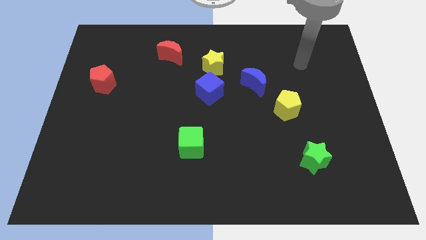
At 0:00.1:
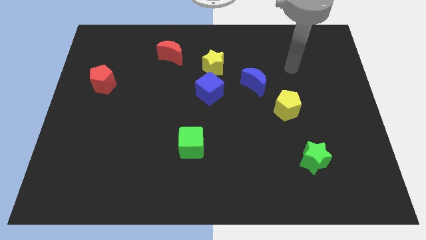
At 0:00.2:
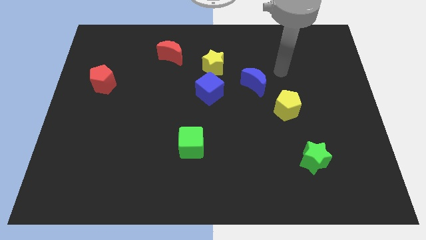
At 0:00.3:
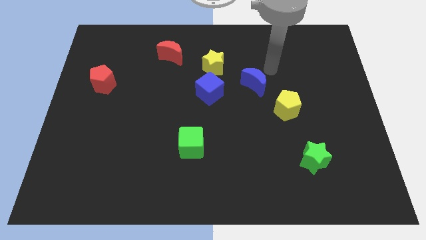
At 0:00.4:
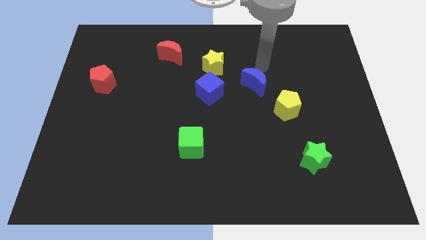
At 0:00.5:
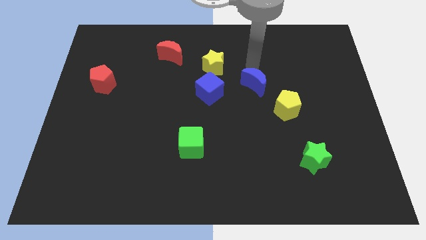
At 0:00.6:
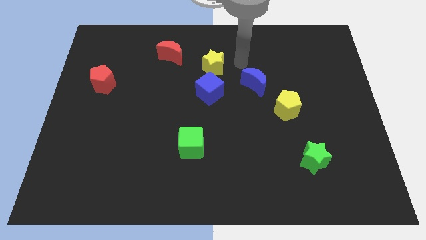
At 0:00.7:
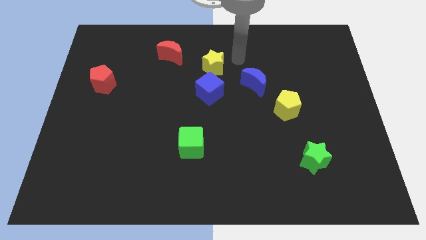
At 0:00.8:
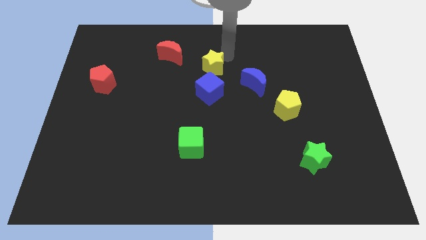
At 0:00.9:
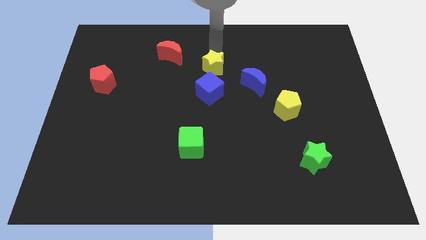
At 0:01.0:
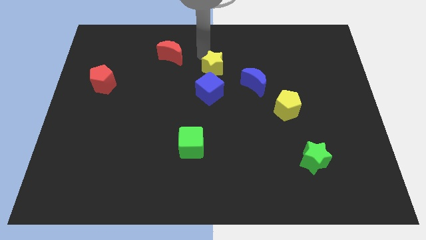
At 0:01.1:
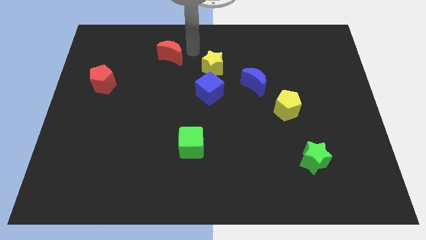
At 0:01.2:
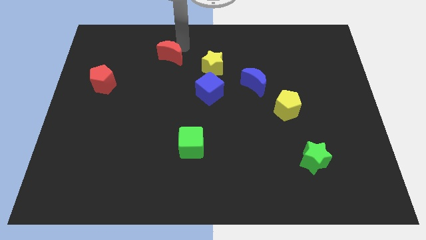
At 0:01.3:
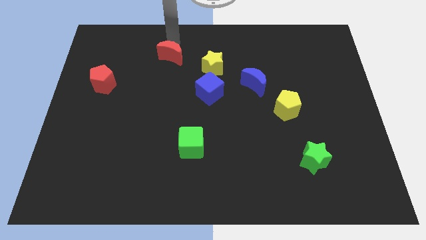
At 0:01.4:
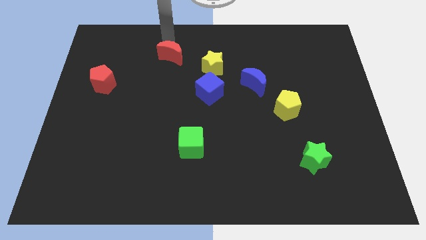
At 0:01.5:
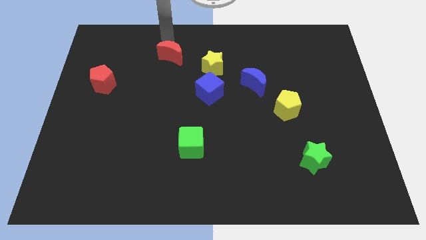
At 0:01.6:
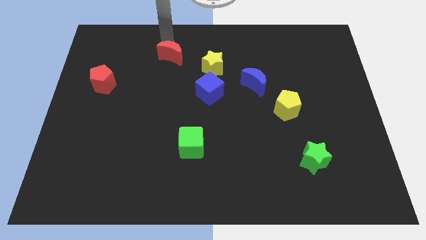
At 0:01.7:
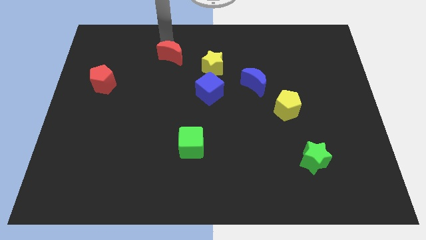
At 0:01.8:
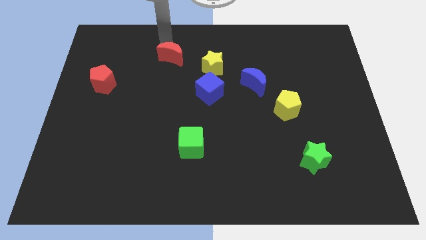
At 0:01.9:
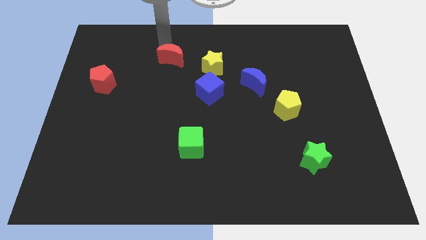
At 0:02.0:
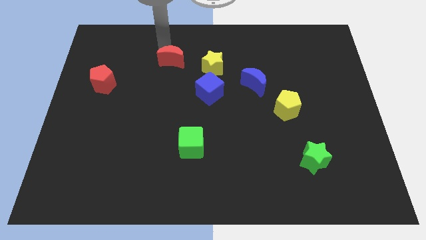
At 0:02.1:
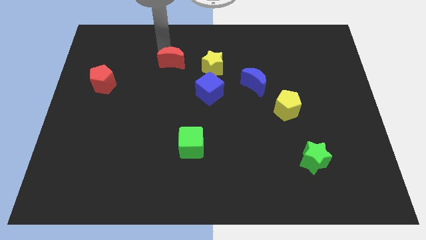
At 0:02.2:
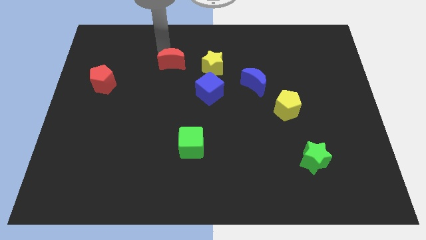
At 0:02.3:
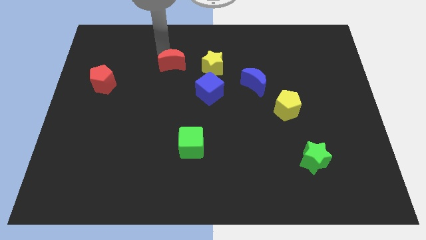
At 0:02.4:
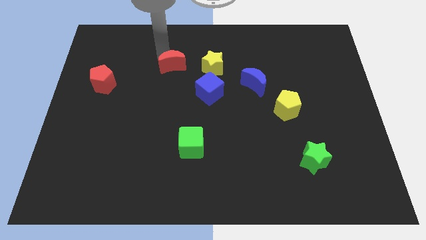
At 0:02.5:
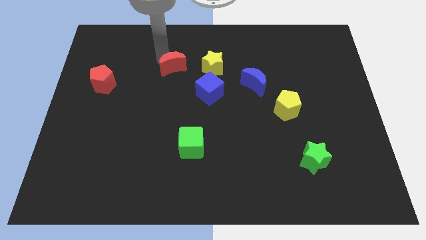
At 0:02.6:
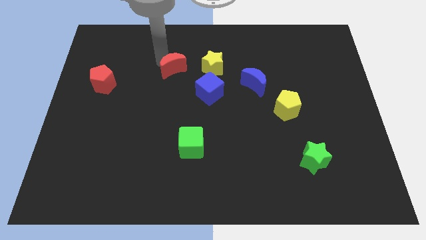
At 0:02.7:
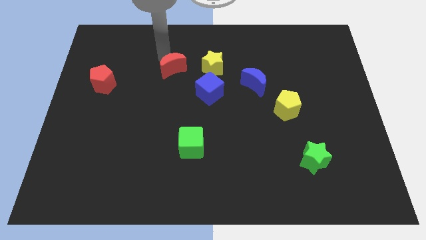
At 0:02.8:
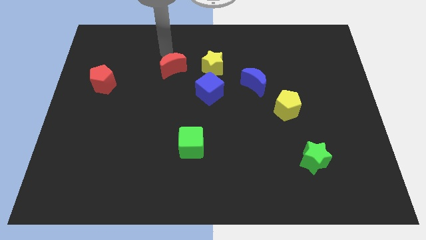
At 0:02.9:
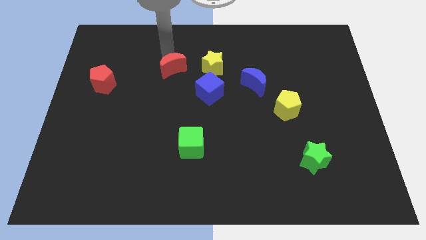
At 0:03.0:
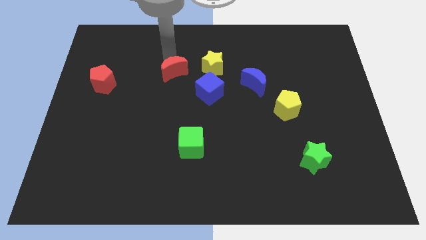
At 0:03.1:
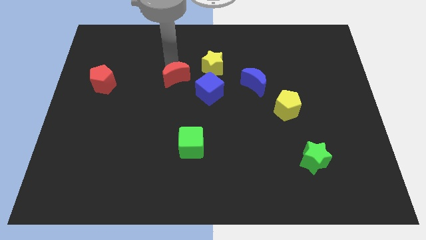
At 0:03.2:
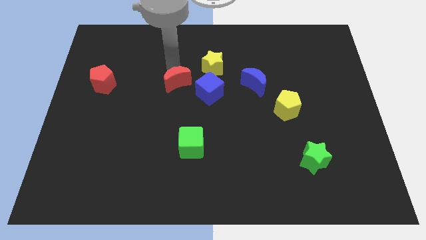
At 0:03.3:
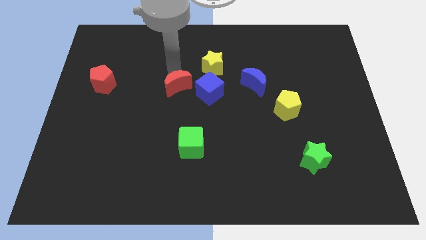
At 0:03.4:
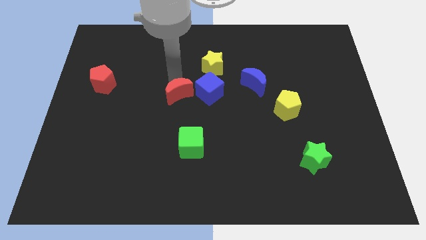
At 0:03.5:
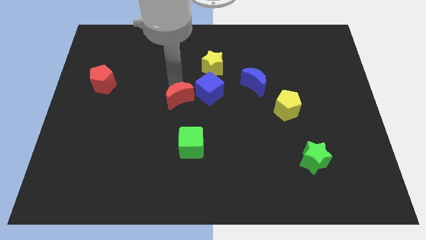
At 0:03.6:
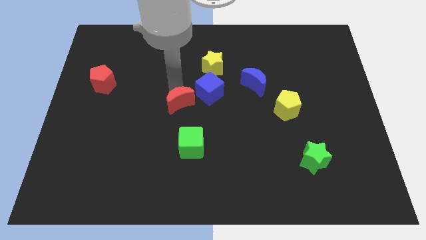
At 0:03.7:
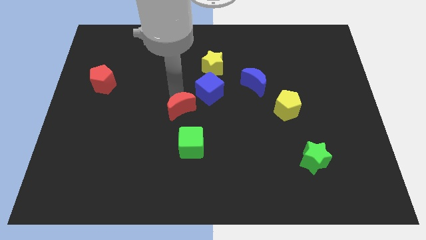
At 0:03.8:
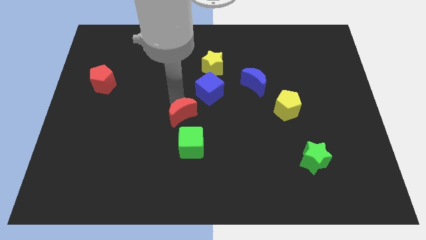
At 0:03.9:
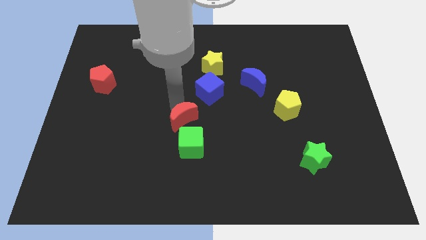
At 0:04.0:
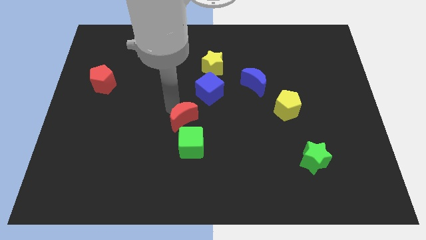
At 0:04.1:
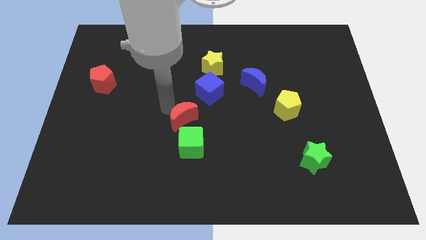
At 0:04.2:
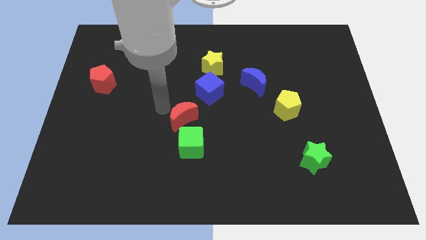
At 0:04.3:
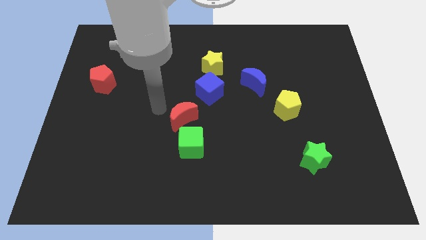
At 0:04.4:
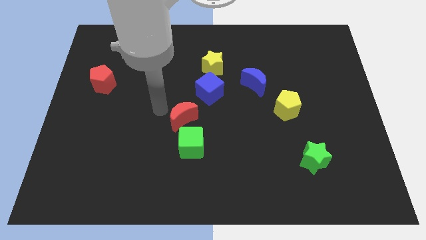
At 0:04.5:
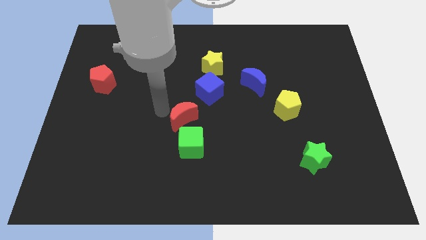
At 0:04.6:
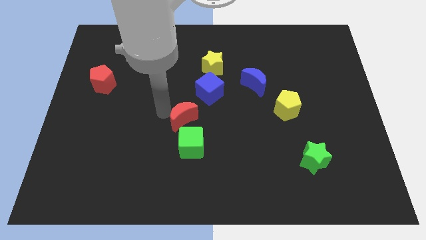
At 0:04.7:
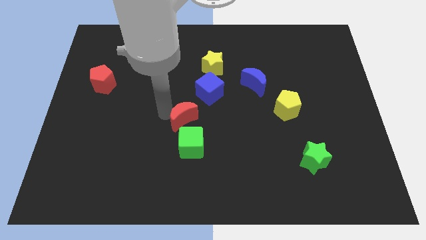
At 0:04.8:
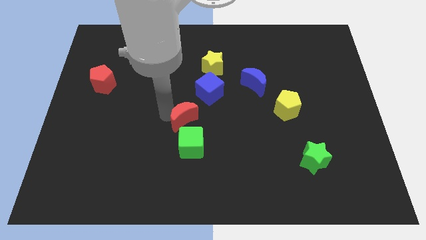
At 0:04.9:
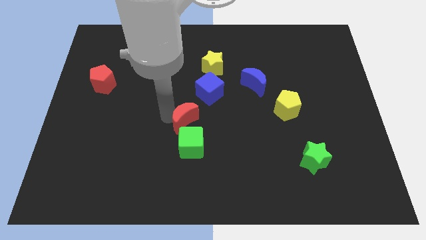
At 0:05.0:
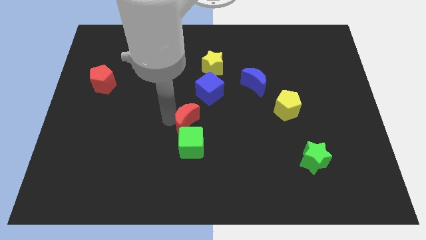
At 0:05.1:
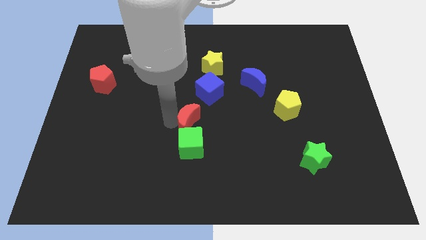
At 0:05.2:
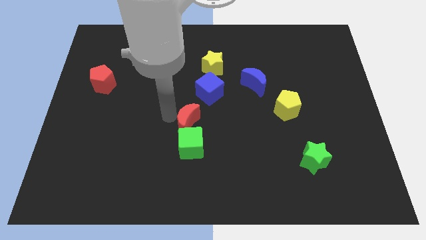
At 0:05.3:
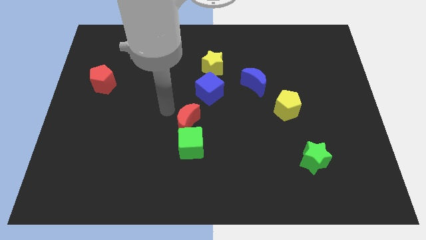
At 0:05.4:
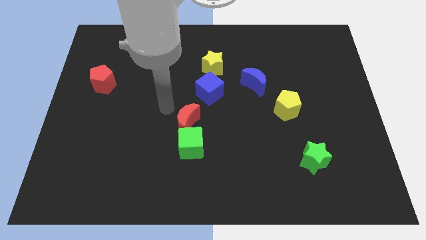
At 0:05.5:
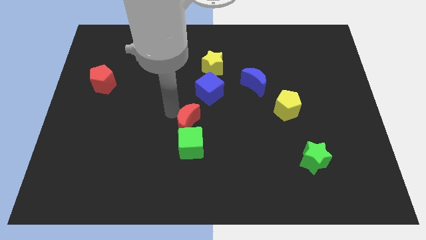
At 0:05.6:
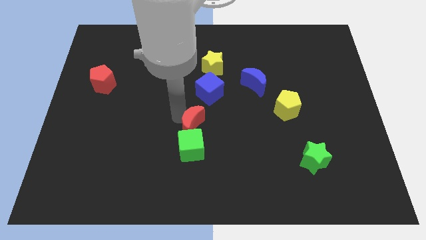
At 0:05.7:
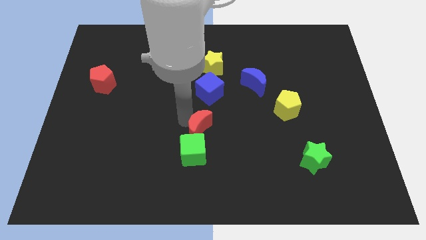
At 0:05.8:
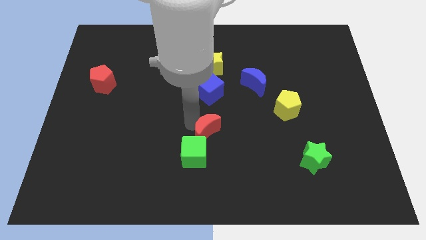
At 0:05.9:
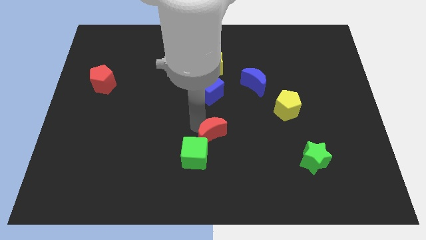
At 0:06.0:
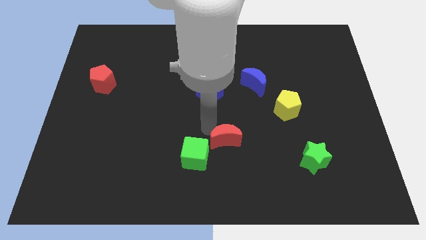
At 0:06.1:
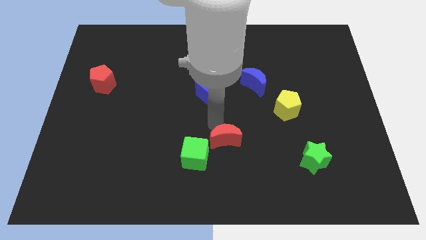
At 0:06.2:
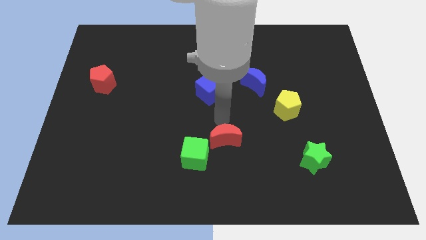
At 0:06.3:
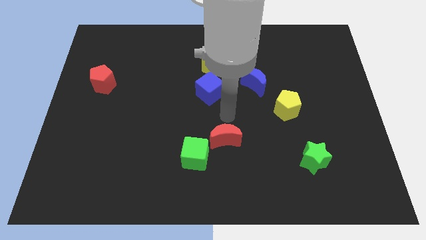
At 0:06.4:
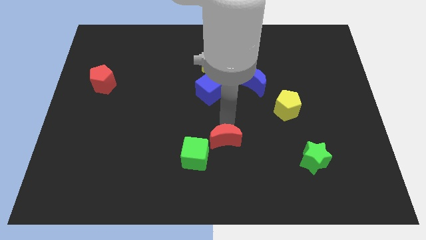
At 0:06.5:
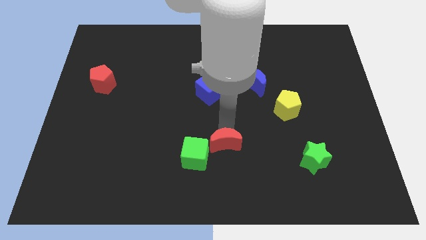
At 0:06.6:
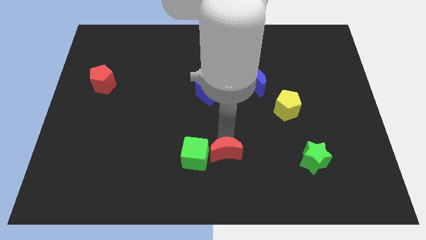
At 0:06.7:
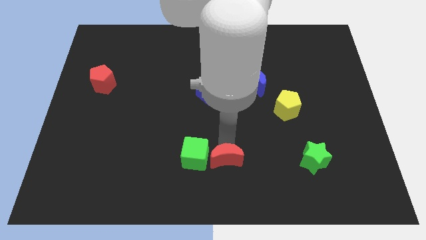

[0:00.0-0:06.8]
put the red moon to the bottom right of the green cube
